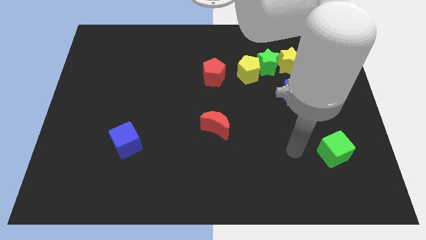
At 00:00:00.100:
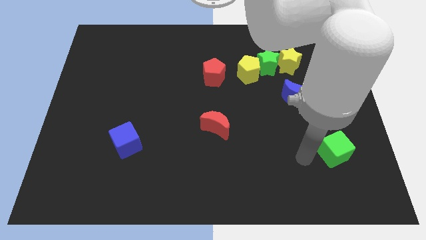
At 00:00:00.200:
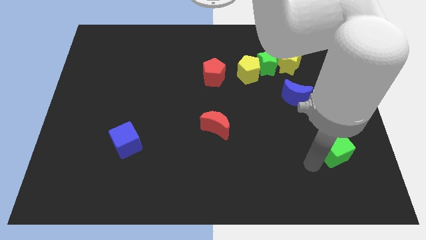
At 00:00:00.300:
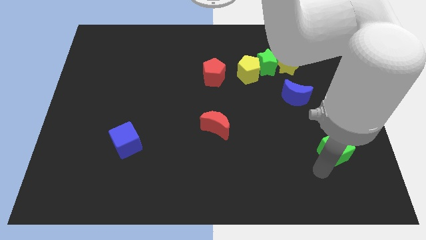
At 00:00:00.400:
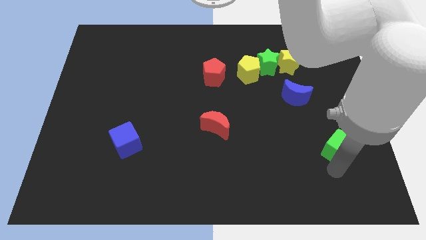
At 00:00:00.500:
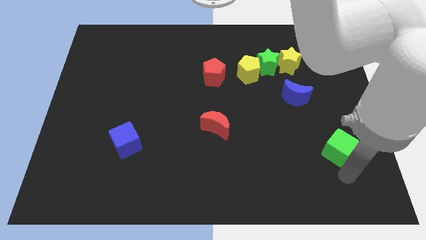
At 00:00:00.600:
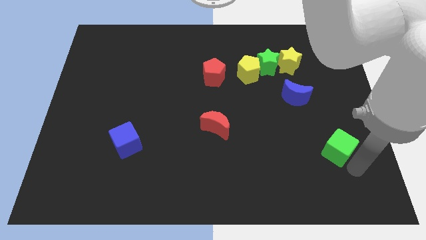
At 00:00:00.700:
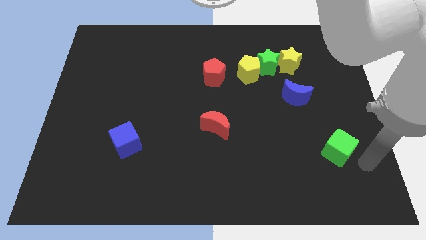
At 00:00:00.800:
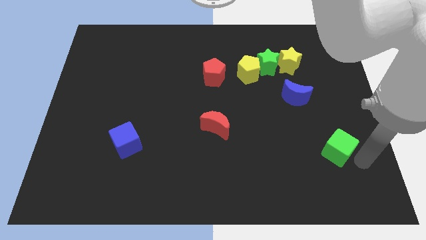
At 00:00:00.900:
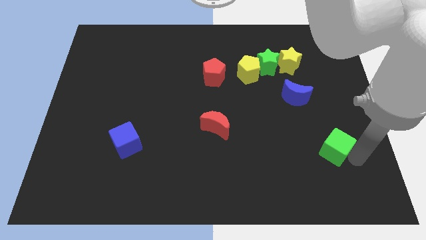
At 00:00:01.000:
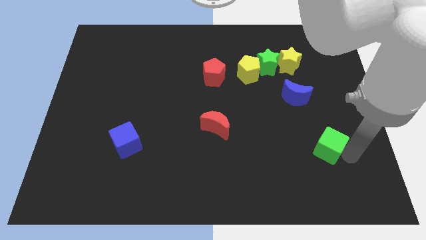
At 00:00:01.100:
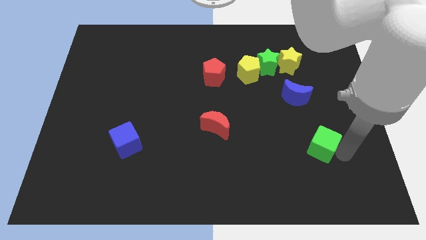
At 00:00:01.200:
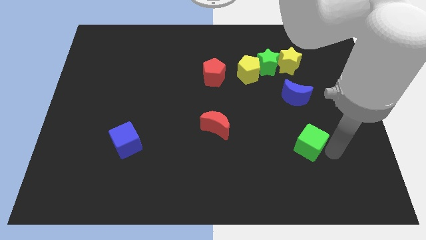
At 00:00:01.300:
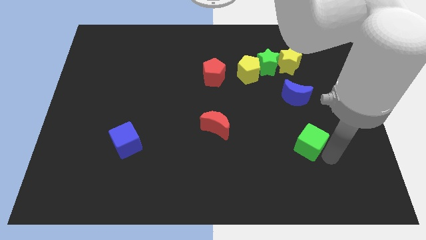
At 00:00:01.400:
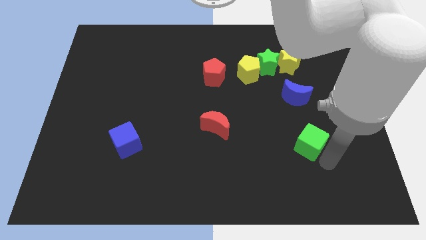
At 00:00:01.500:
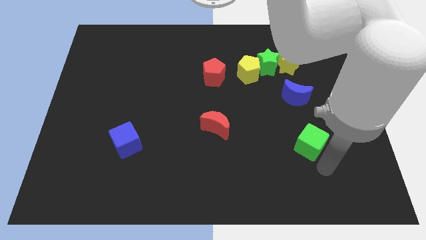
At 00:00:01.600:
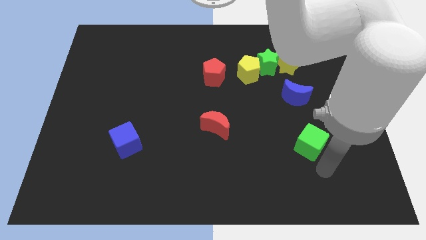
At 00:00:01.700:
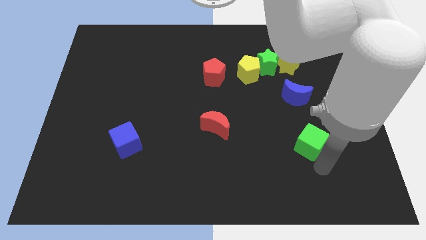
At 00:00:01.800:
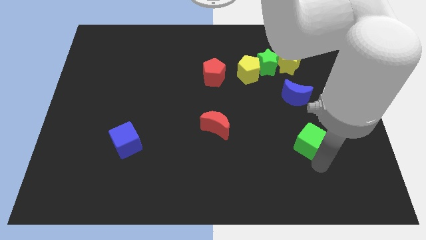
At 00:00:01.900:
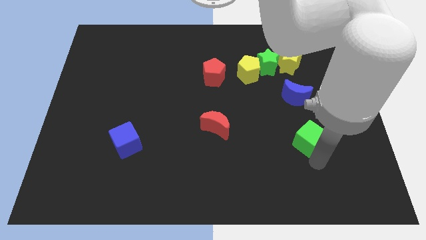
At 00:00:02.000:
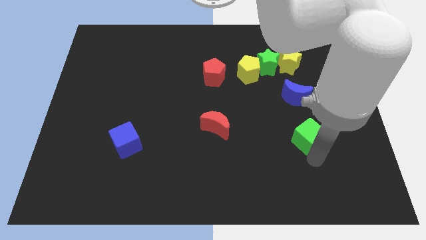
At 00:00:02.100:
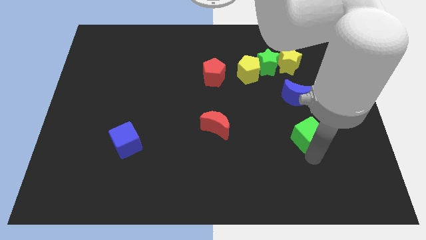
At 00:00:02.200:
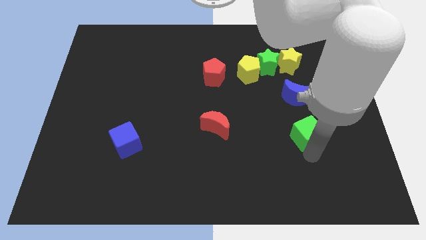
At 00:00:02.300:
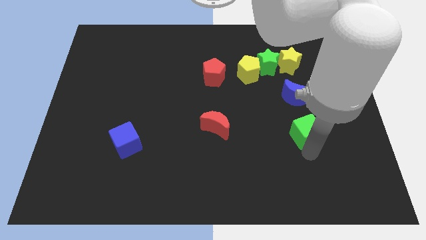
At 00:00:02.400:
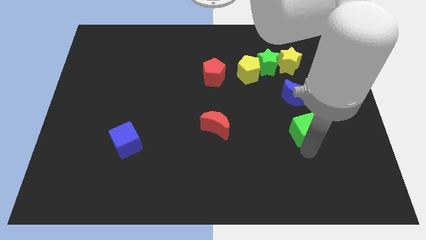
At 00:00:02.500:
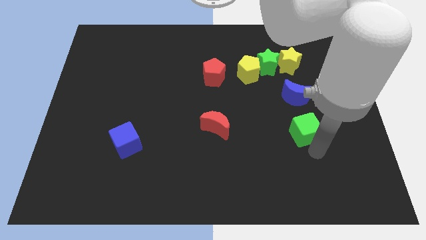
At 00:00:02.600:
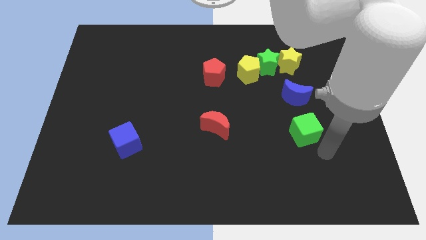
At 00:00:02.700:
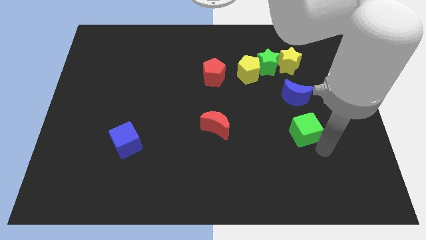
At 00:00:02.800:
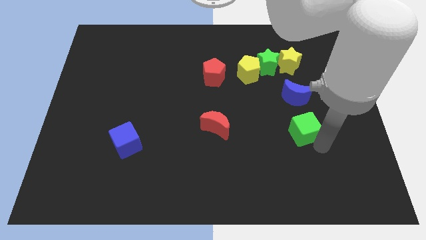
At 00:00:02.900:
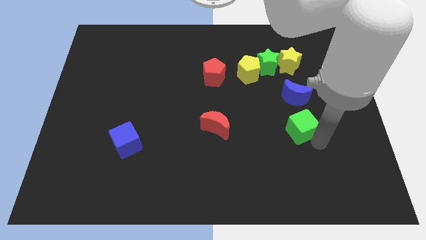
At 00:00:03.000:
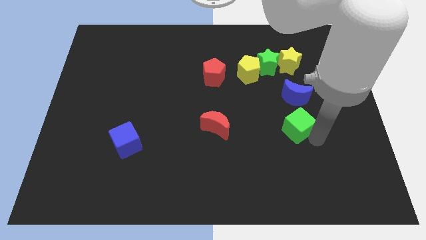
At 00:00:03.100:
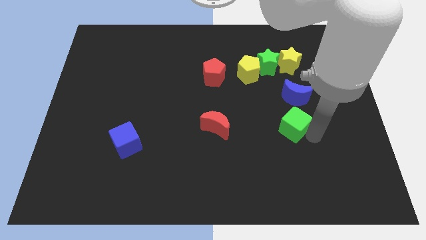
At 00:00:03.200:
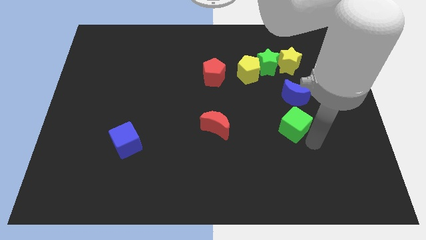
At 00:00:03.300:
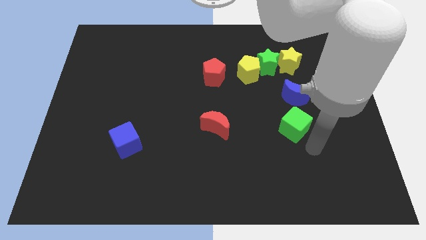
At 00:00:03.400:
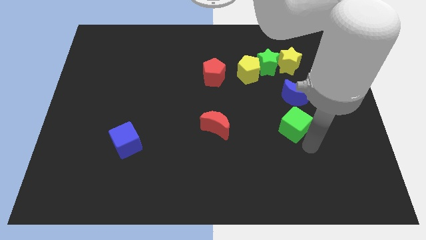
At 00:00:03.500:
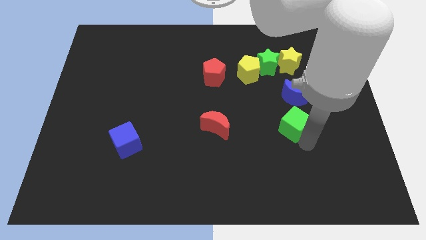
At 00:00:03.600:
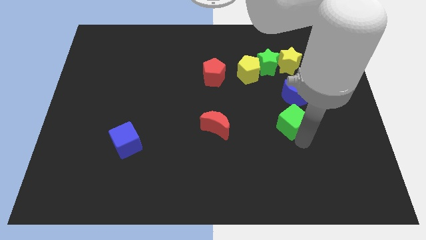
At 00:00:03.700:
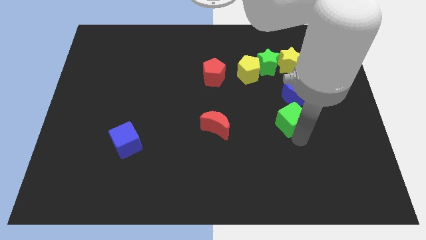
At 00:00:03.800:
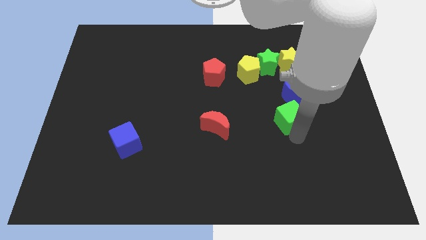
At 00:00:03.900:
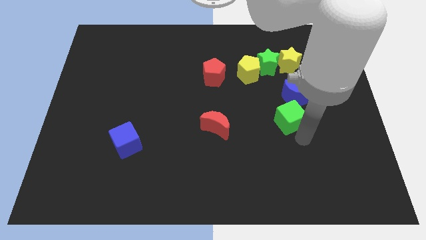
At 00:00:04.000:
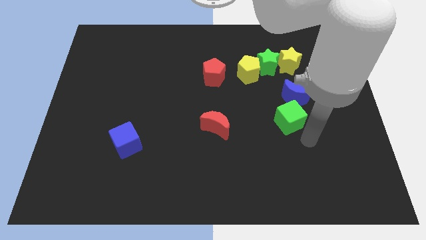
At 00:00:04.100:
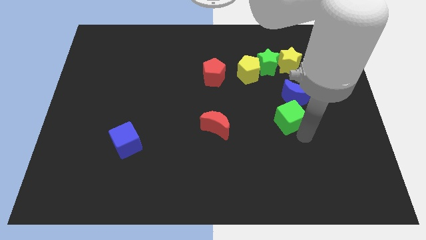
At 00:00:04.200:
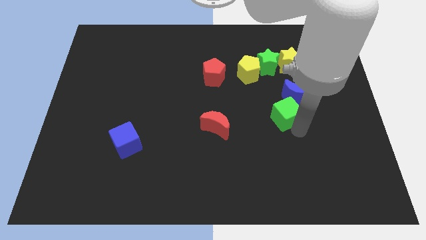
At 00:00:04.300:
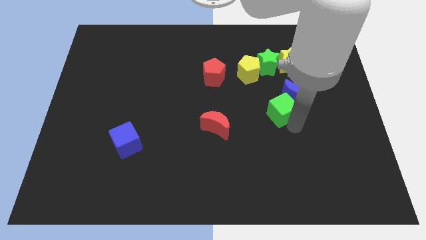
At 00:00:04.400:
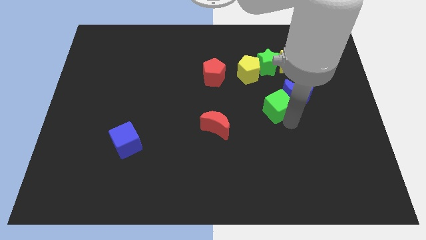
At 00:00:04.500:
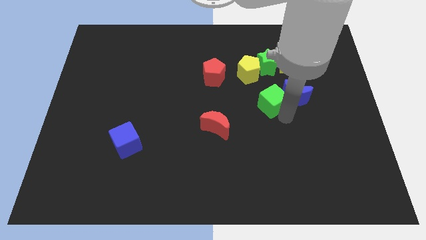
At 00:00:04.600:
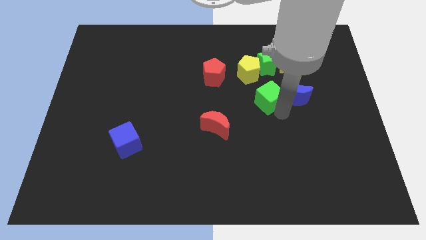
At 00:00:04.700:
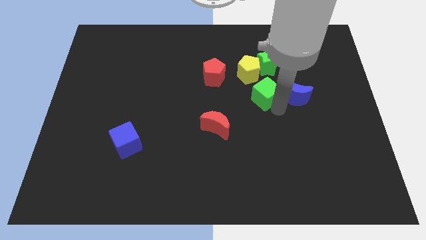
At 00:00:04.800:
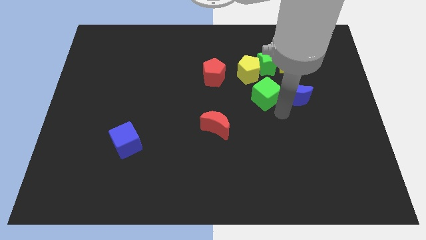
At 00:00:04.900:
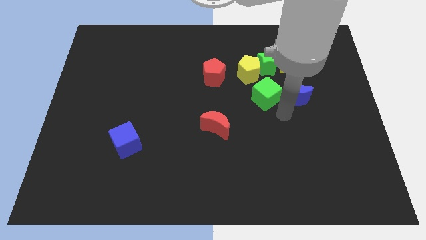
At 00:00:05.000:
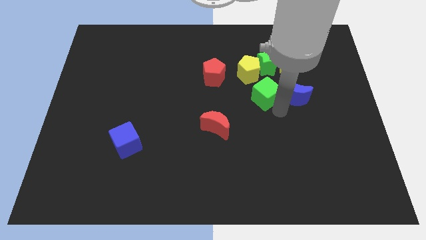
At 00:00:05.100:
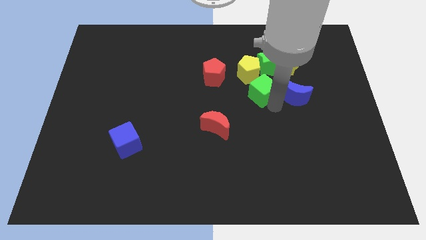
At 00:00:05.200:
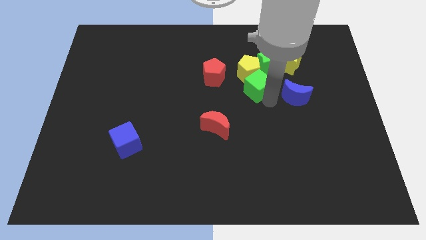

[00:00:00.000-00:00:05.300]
move the green cube to the bottom left of the green star

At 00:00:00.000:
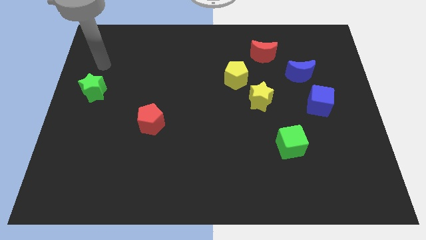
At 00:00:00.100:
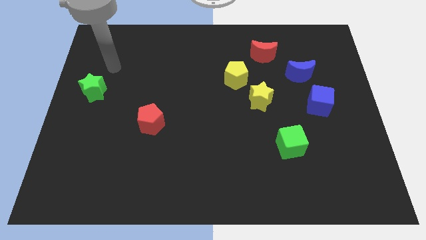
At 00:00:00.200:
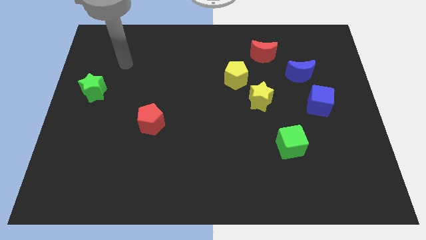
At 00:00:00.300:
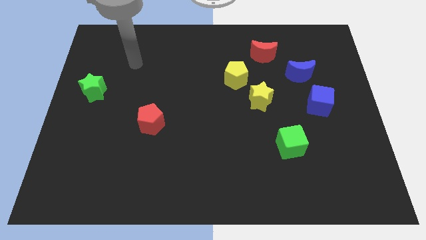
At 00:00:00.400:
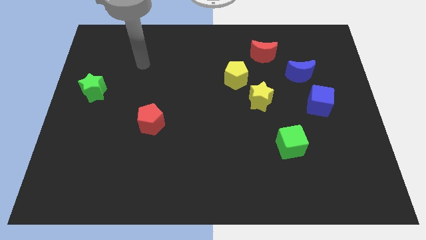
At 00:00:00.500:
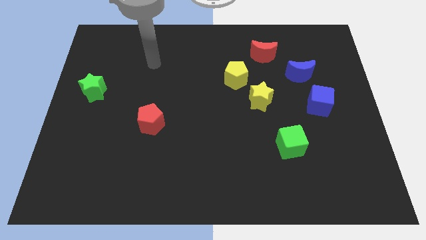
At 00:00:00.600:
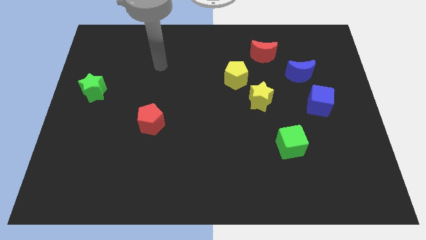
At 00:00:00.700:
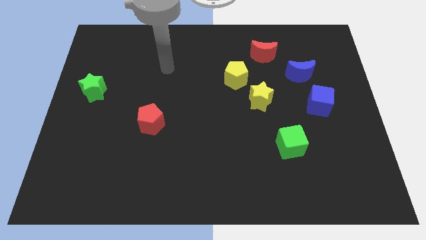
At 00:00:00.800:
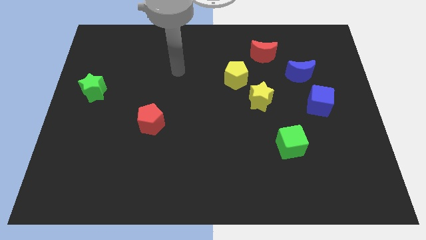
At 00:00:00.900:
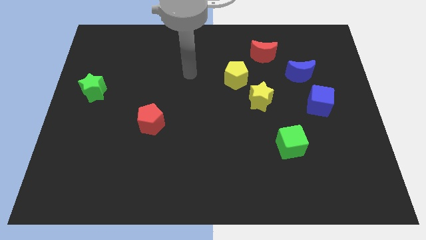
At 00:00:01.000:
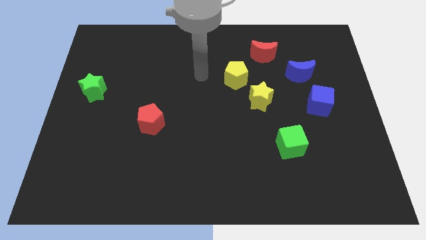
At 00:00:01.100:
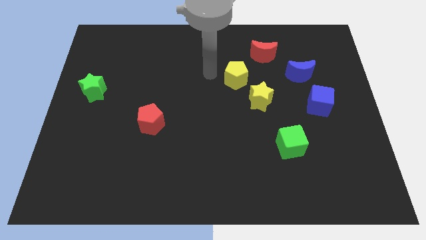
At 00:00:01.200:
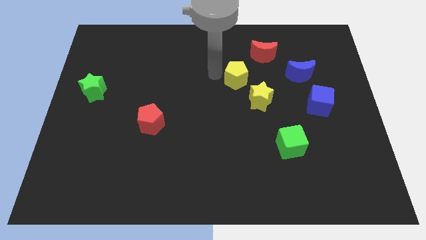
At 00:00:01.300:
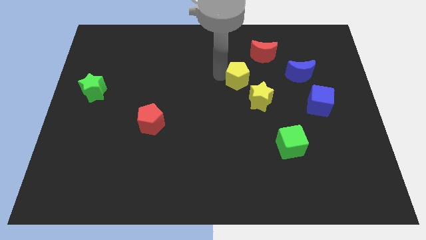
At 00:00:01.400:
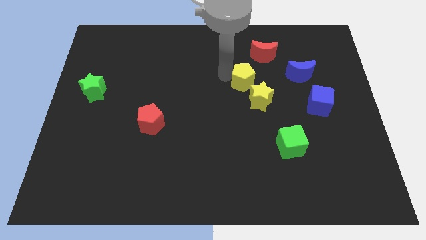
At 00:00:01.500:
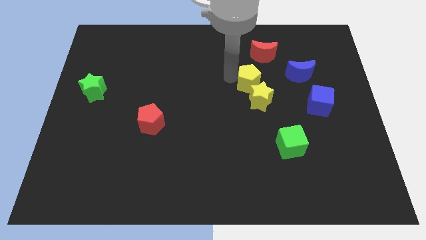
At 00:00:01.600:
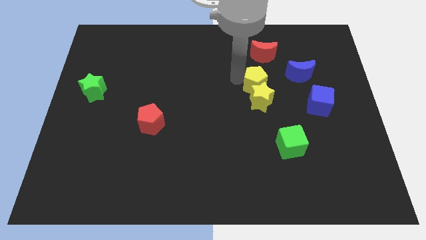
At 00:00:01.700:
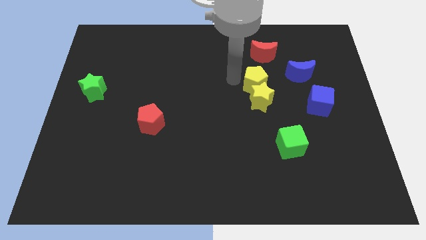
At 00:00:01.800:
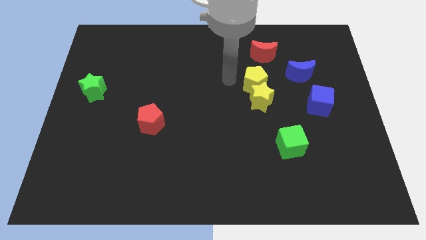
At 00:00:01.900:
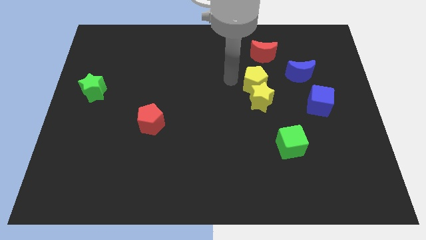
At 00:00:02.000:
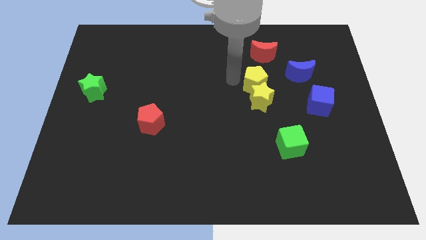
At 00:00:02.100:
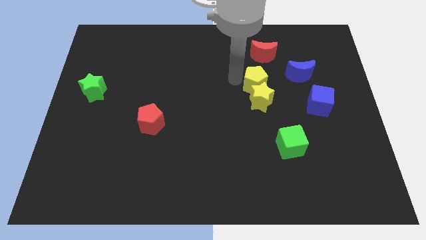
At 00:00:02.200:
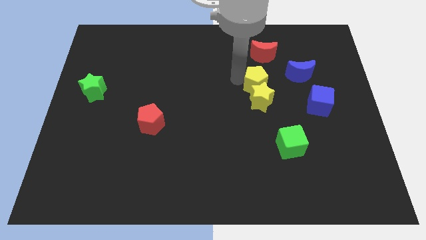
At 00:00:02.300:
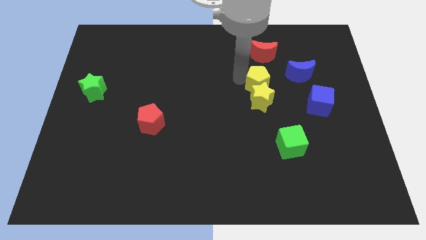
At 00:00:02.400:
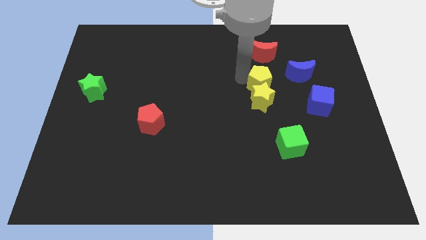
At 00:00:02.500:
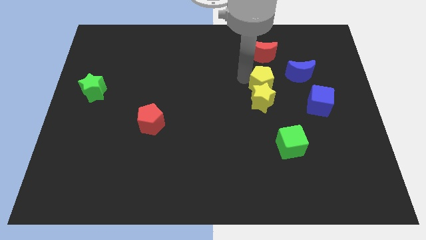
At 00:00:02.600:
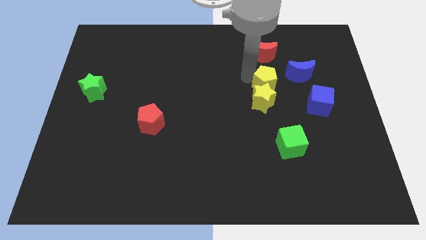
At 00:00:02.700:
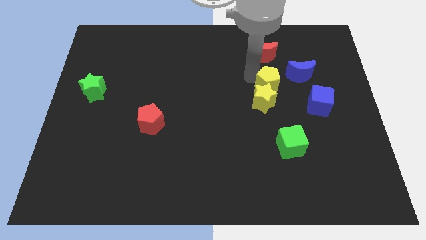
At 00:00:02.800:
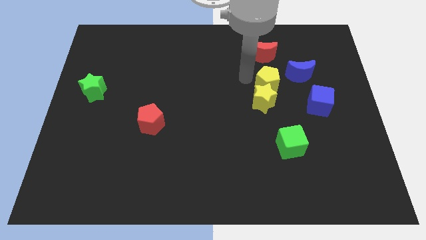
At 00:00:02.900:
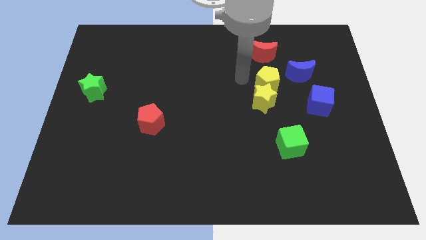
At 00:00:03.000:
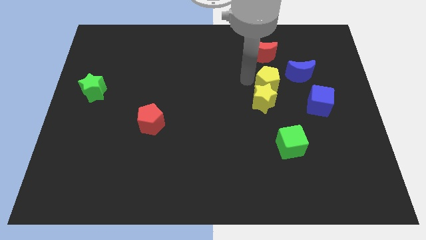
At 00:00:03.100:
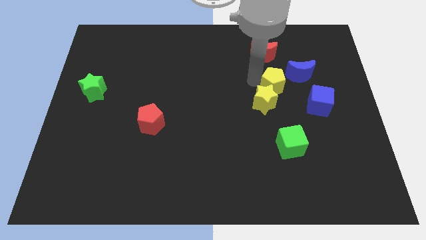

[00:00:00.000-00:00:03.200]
put the yellow pentagon to the top left of the blue cube
